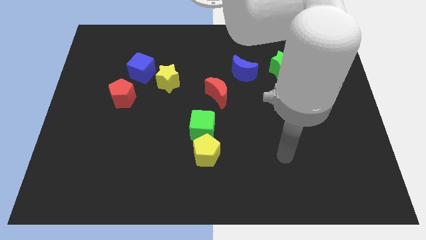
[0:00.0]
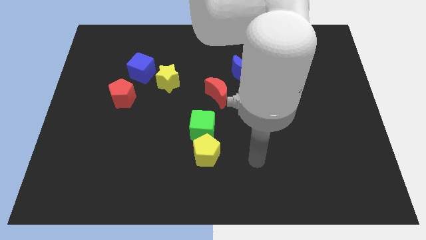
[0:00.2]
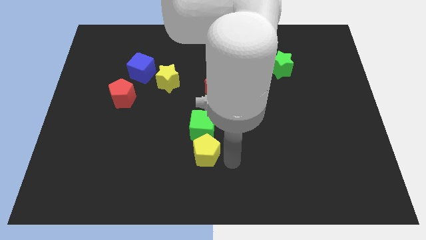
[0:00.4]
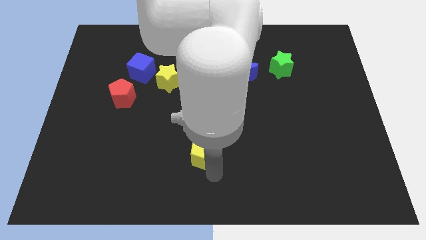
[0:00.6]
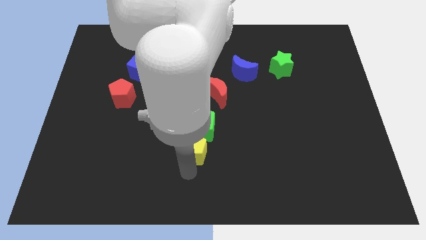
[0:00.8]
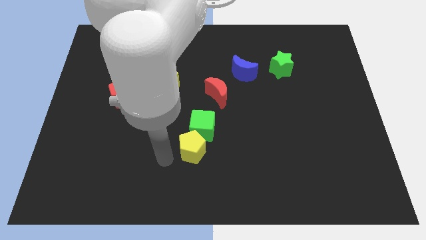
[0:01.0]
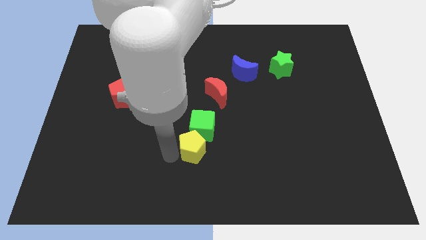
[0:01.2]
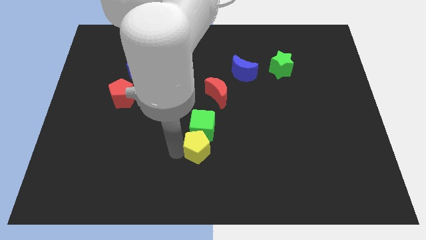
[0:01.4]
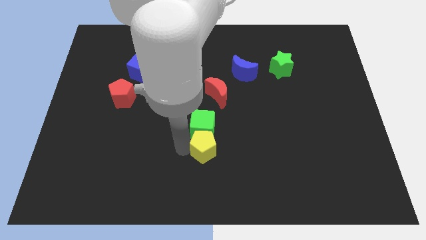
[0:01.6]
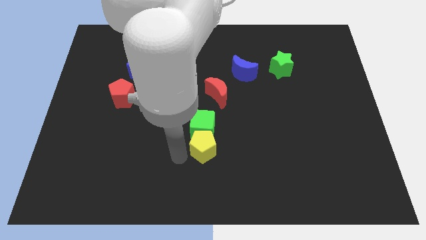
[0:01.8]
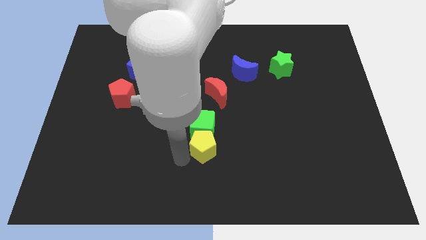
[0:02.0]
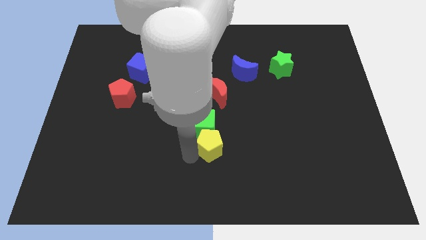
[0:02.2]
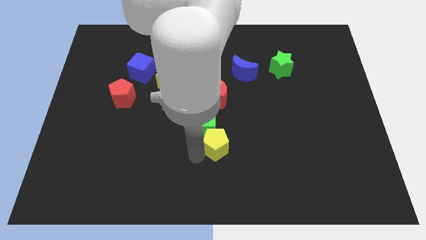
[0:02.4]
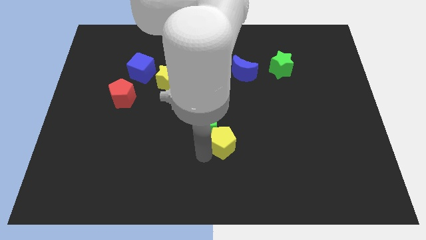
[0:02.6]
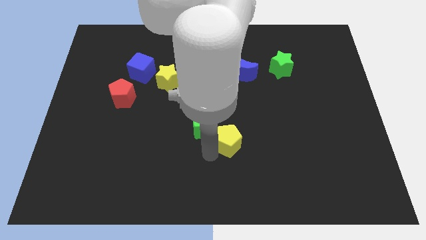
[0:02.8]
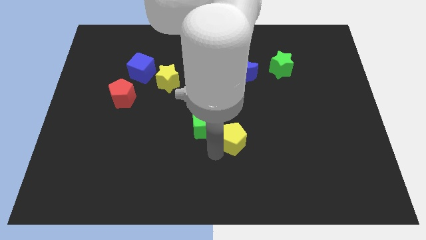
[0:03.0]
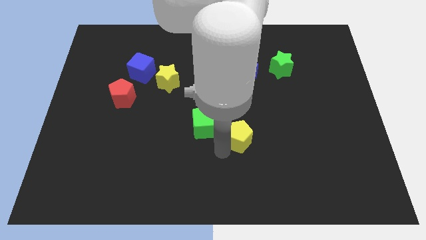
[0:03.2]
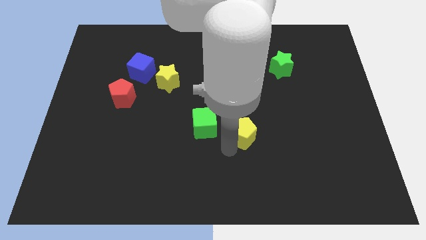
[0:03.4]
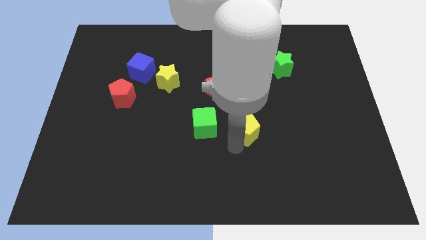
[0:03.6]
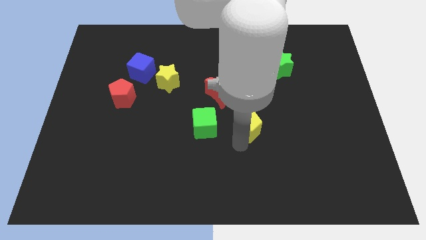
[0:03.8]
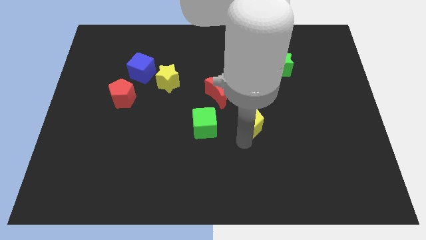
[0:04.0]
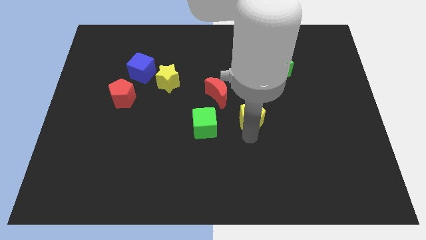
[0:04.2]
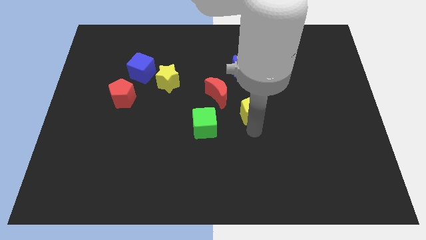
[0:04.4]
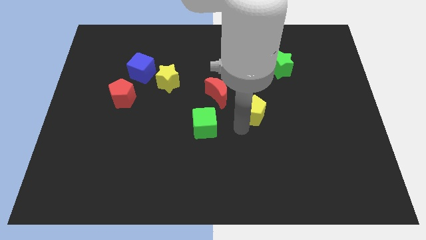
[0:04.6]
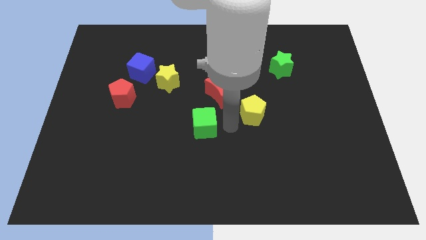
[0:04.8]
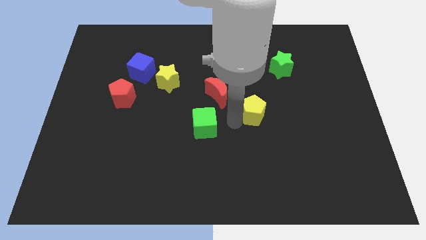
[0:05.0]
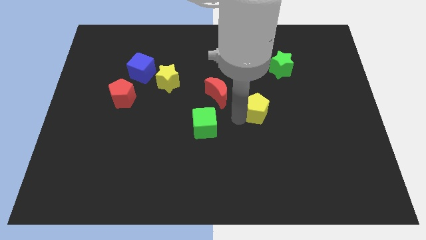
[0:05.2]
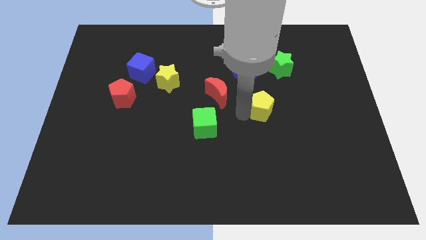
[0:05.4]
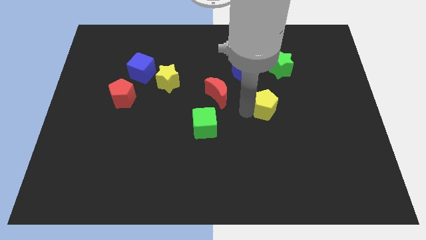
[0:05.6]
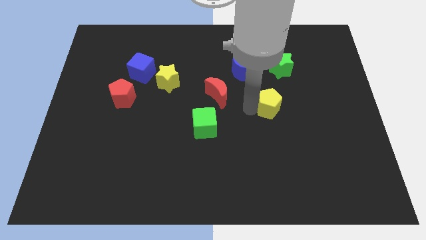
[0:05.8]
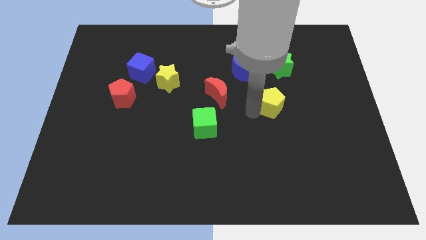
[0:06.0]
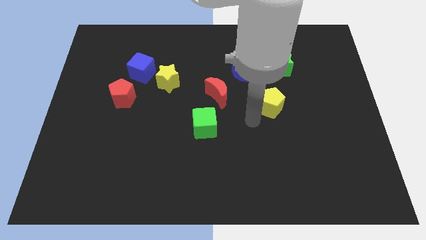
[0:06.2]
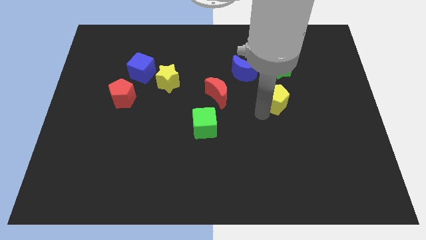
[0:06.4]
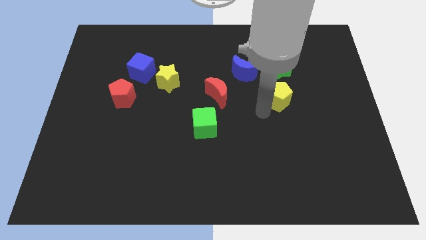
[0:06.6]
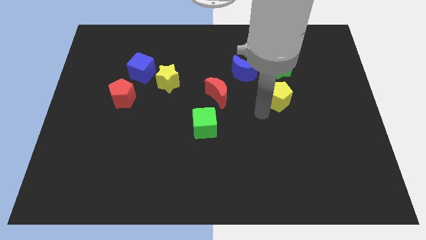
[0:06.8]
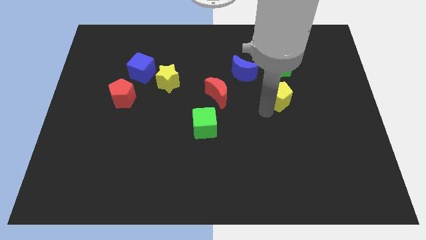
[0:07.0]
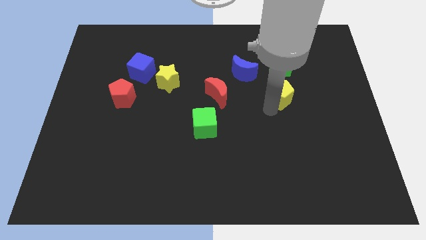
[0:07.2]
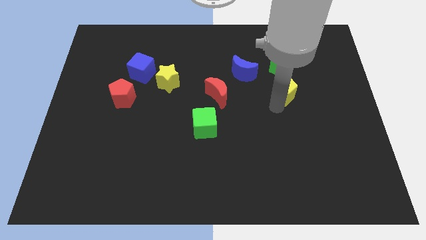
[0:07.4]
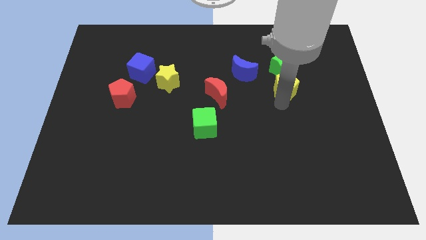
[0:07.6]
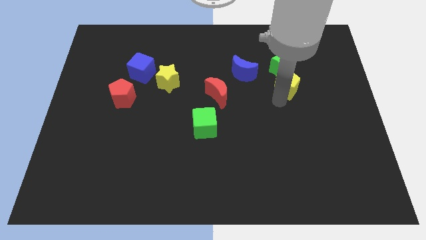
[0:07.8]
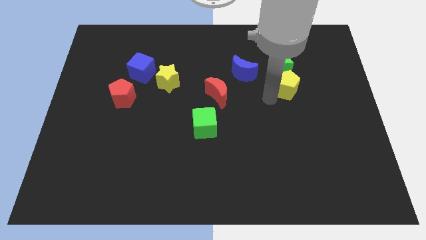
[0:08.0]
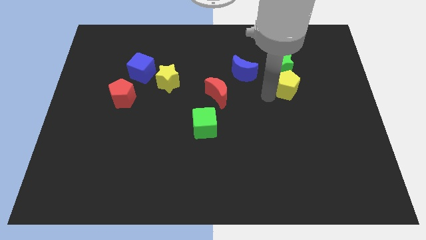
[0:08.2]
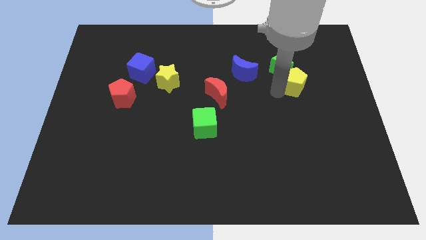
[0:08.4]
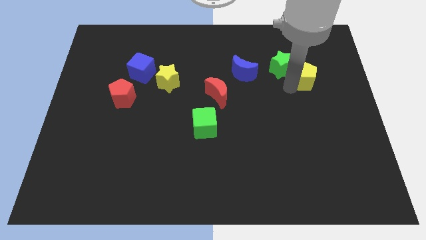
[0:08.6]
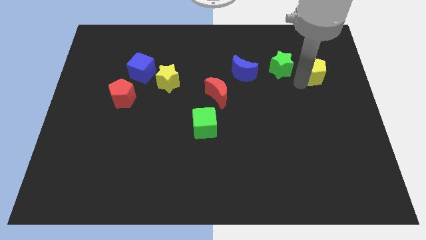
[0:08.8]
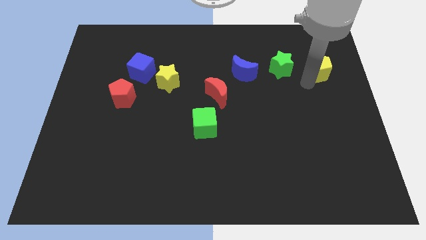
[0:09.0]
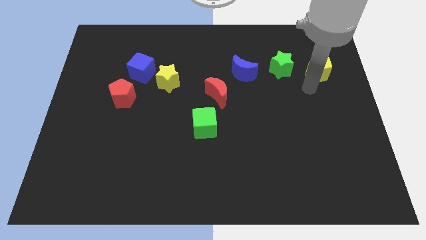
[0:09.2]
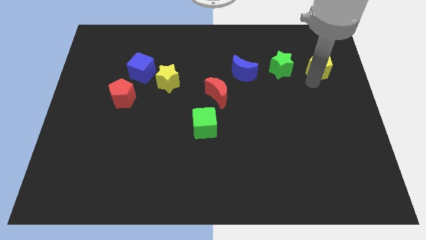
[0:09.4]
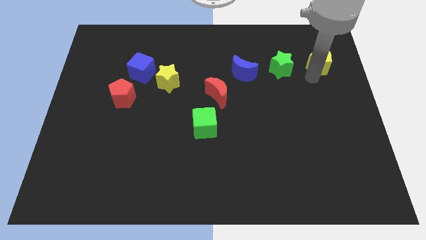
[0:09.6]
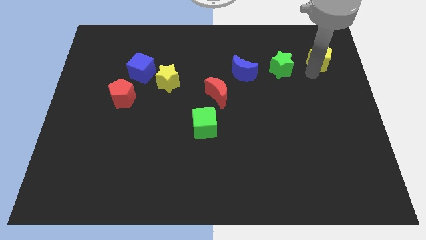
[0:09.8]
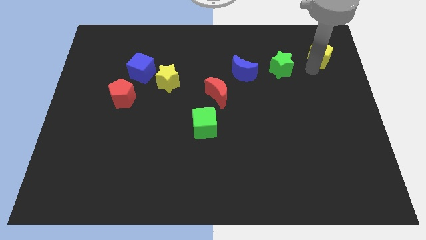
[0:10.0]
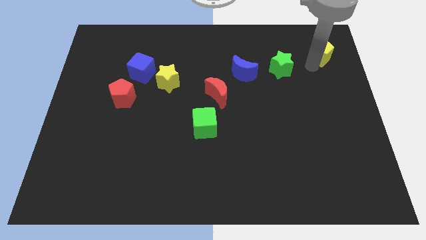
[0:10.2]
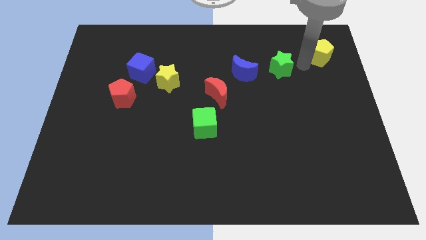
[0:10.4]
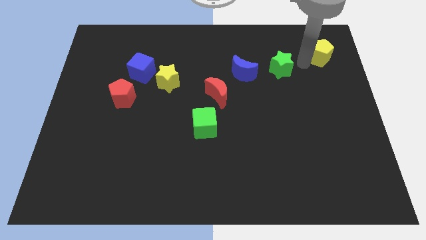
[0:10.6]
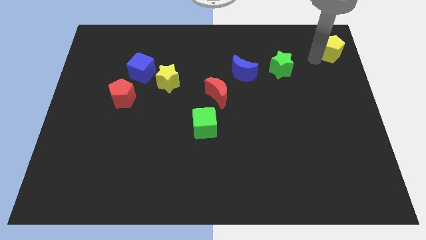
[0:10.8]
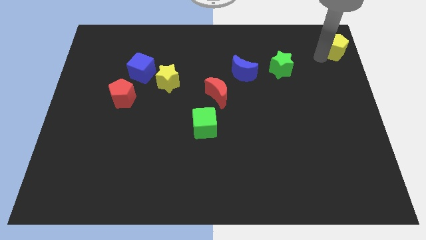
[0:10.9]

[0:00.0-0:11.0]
put the yellow pentagon to the top right of the board

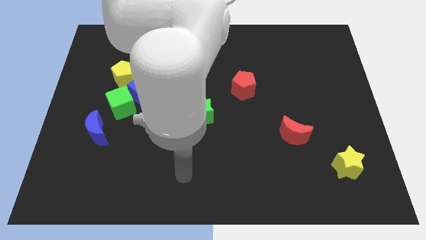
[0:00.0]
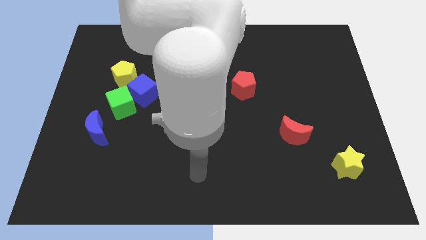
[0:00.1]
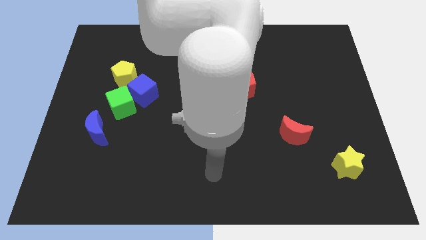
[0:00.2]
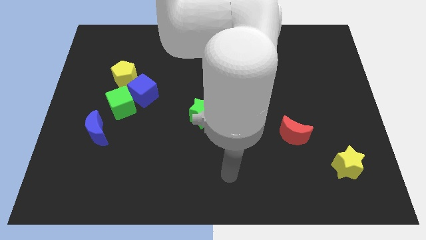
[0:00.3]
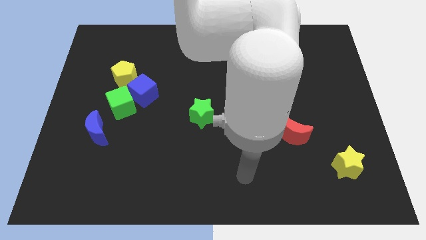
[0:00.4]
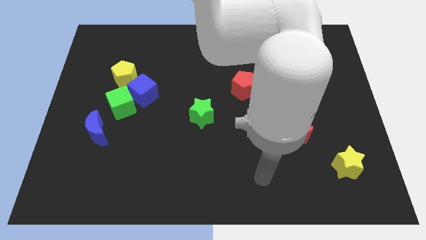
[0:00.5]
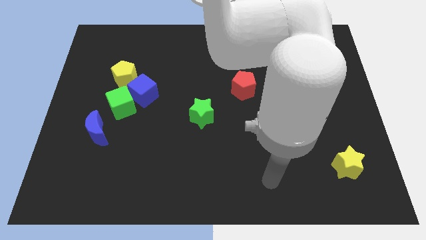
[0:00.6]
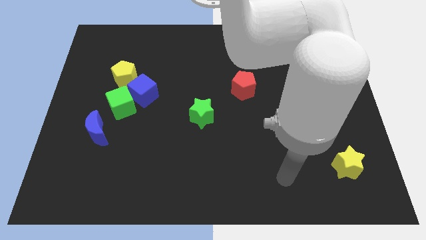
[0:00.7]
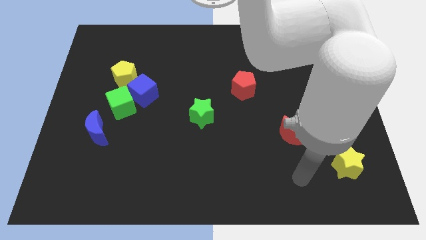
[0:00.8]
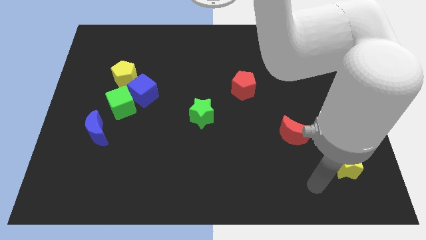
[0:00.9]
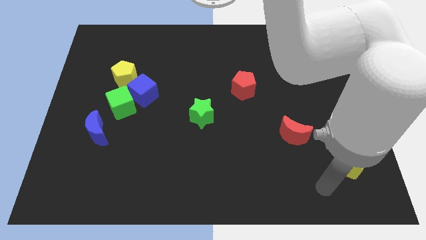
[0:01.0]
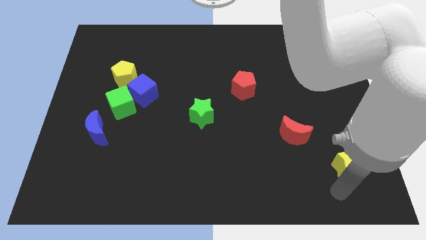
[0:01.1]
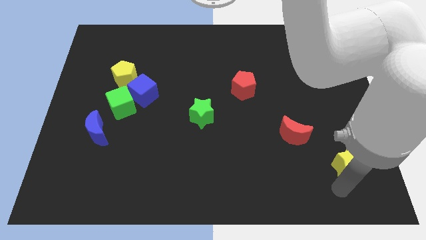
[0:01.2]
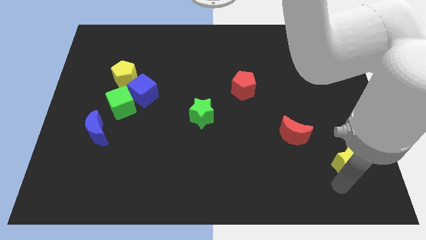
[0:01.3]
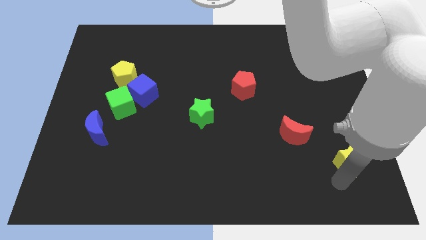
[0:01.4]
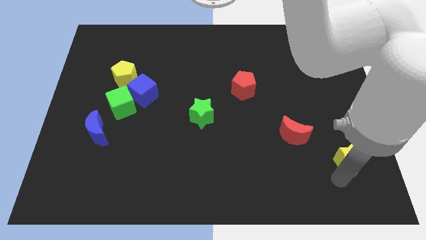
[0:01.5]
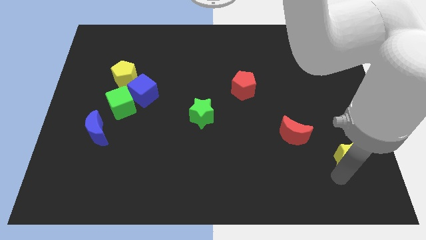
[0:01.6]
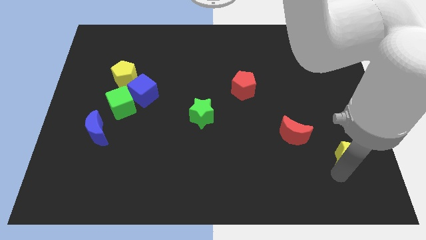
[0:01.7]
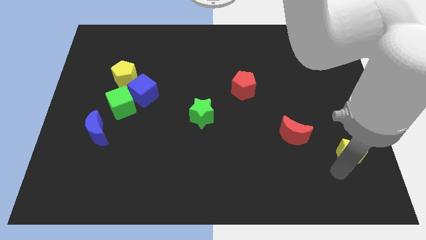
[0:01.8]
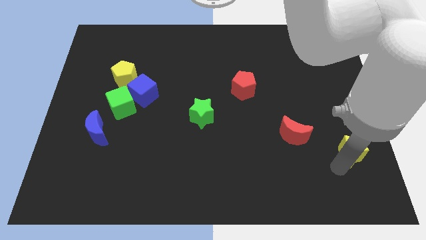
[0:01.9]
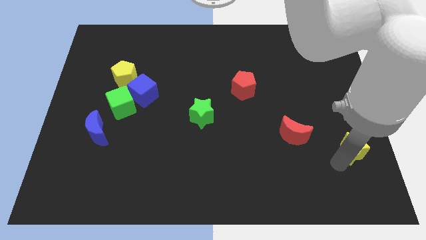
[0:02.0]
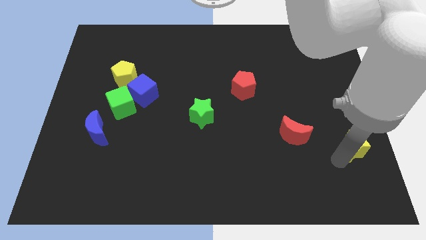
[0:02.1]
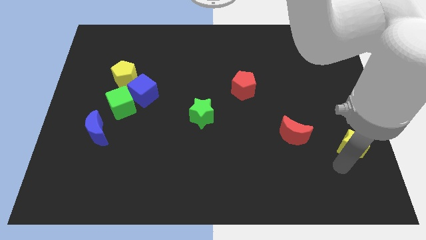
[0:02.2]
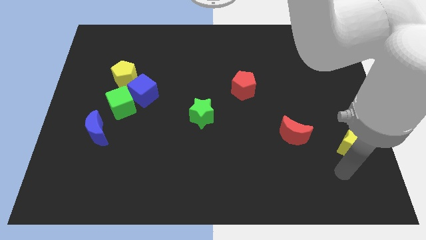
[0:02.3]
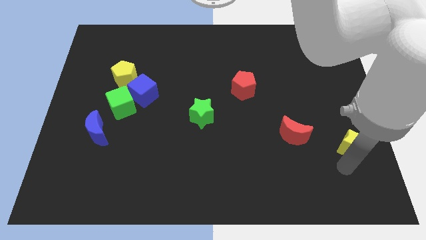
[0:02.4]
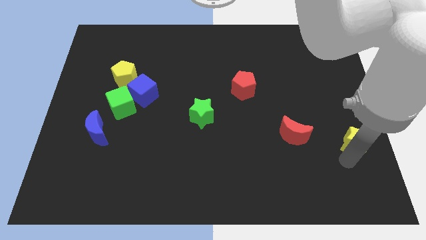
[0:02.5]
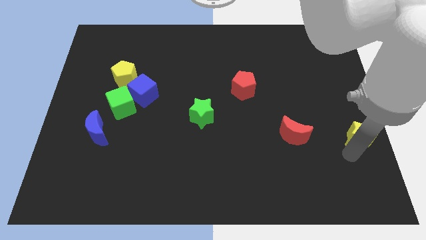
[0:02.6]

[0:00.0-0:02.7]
put the yellow star to the right side of the board
